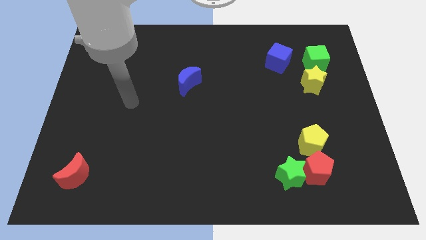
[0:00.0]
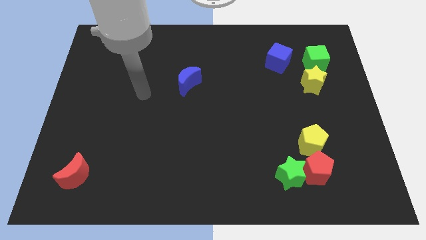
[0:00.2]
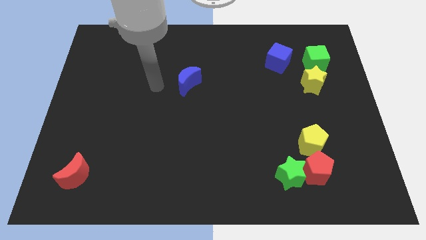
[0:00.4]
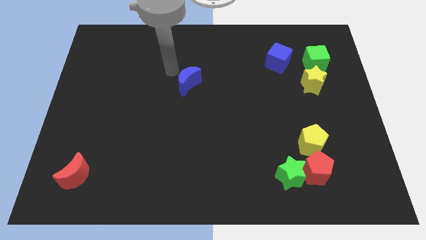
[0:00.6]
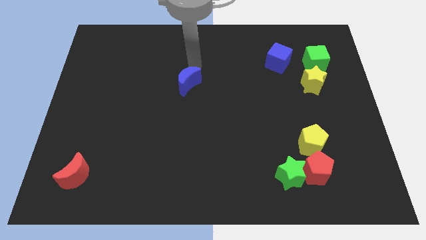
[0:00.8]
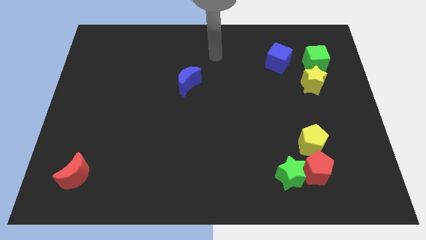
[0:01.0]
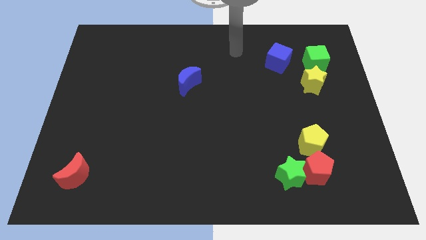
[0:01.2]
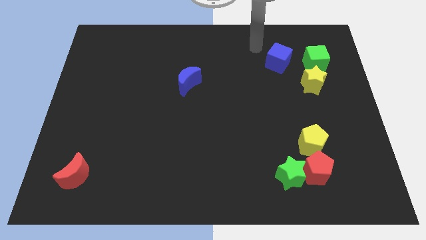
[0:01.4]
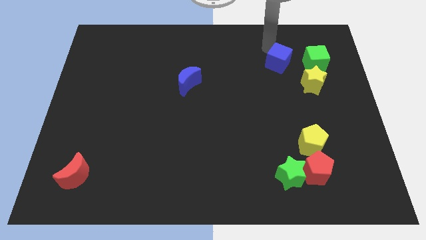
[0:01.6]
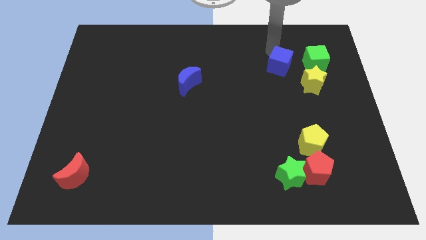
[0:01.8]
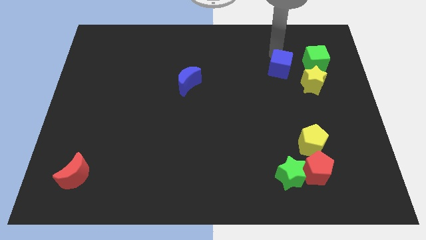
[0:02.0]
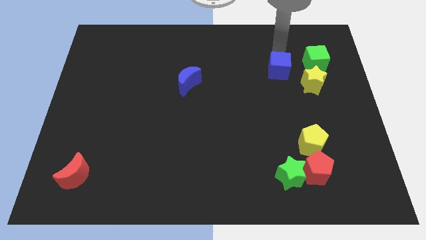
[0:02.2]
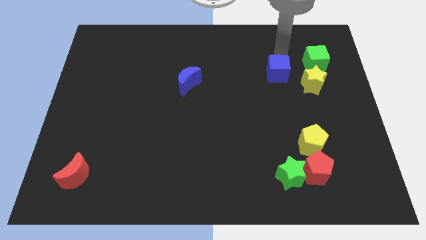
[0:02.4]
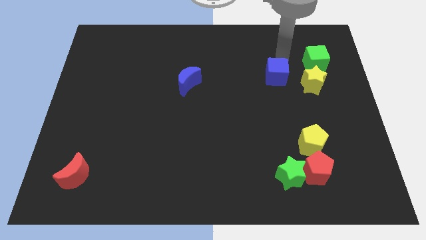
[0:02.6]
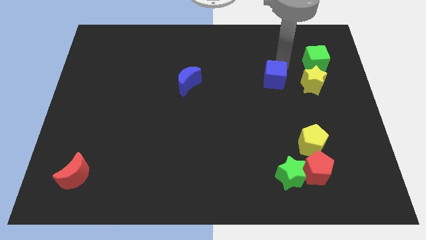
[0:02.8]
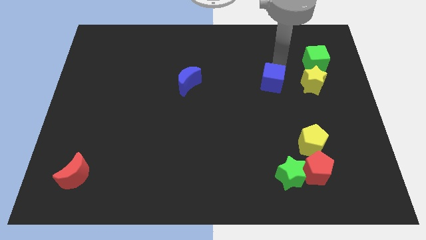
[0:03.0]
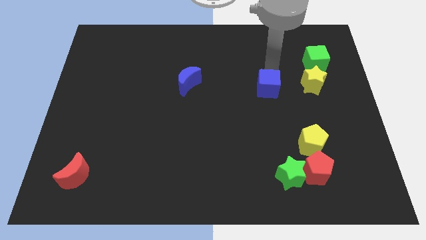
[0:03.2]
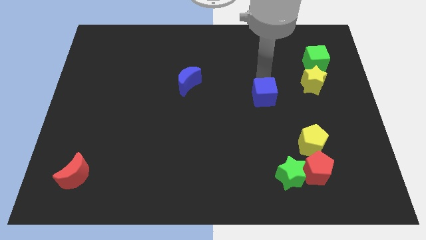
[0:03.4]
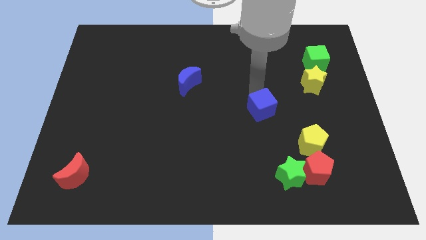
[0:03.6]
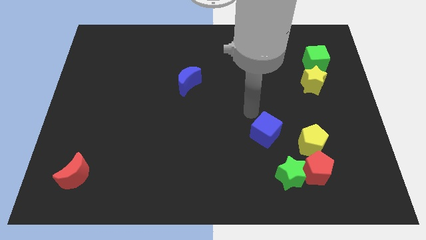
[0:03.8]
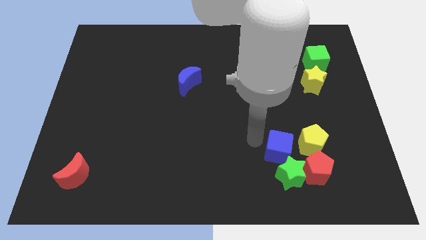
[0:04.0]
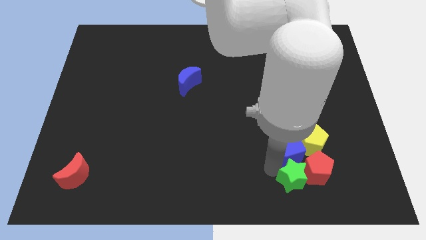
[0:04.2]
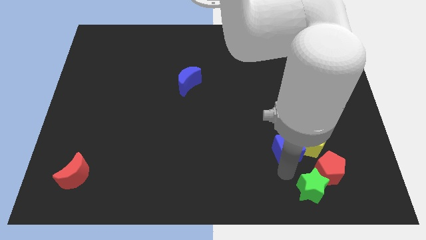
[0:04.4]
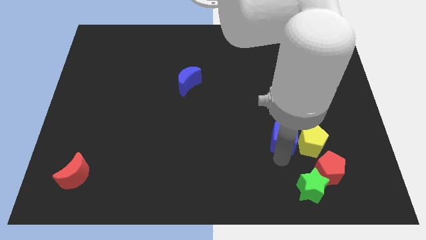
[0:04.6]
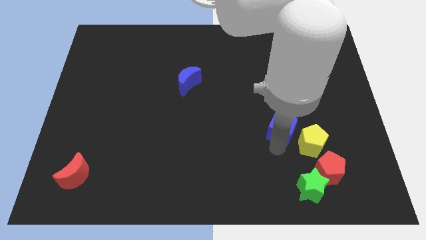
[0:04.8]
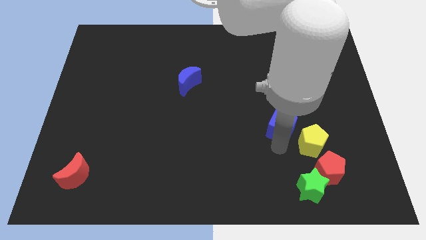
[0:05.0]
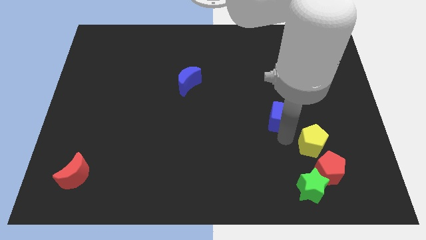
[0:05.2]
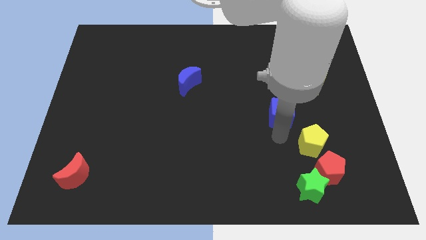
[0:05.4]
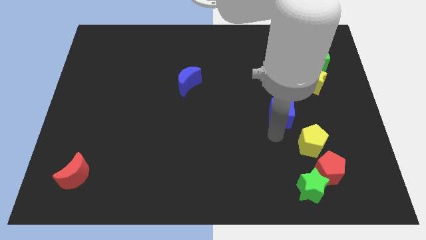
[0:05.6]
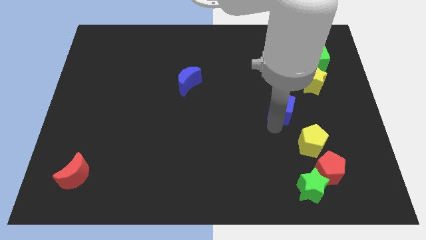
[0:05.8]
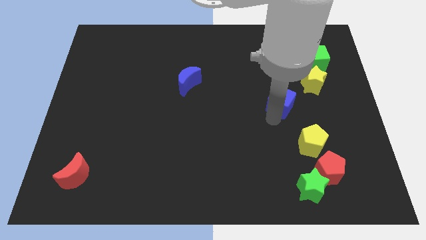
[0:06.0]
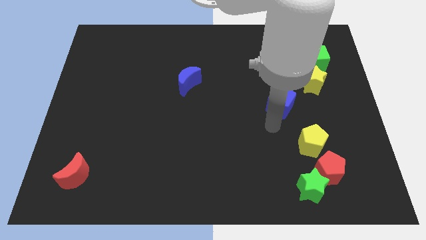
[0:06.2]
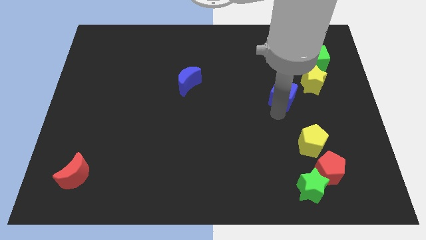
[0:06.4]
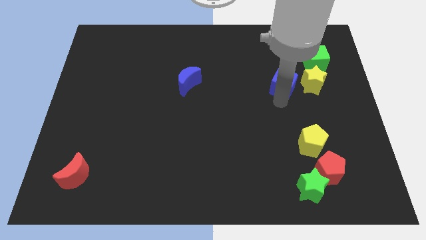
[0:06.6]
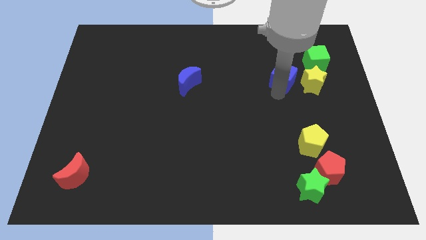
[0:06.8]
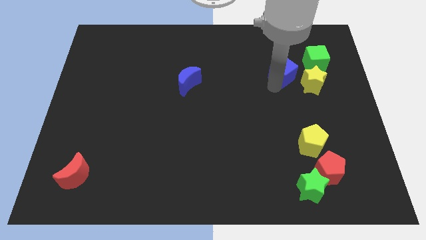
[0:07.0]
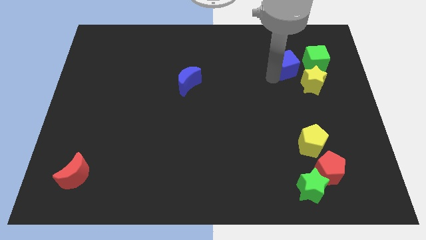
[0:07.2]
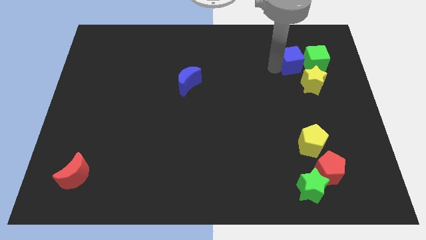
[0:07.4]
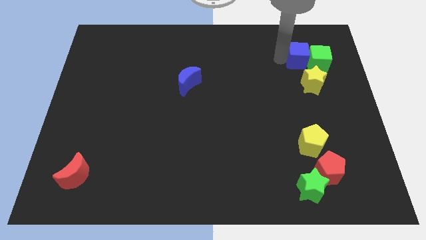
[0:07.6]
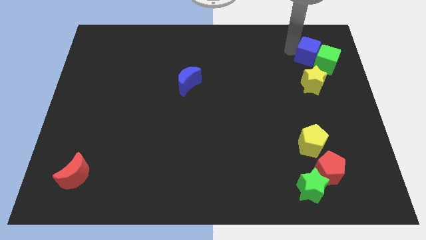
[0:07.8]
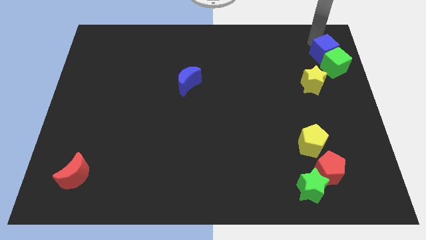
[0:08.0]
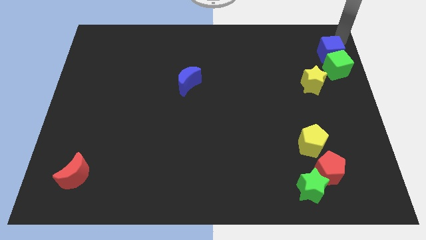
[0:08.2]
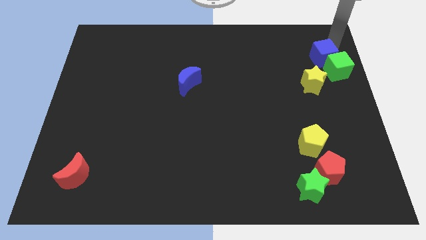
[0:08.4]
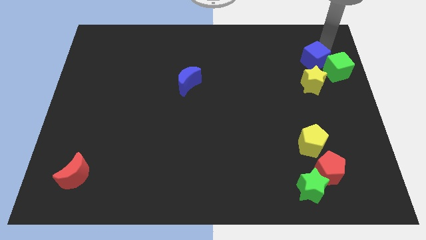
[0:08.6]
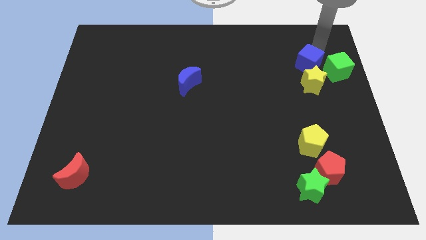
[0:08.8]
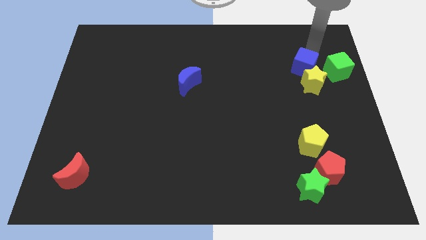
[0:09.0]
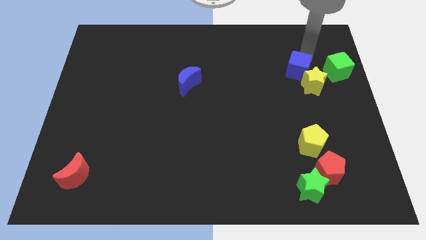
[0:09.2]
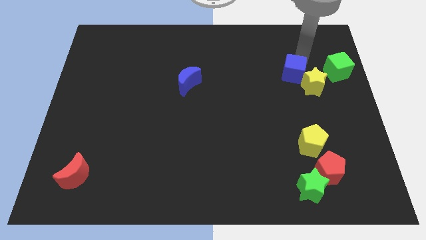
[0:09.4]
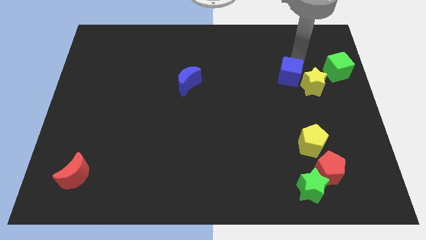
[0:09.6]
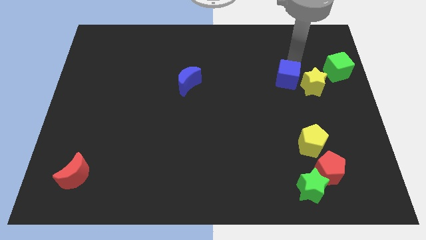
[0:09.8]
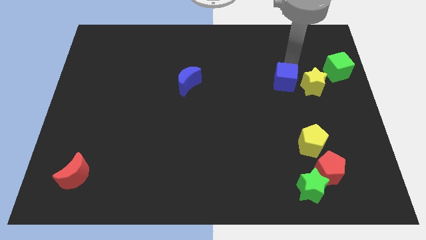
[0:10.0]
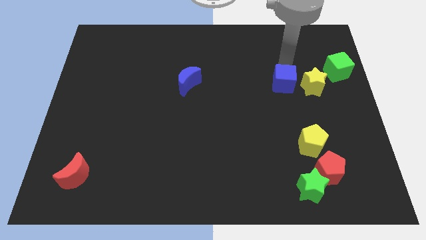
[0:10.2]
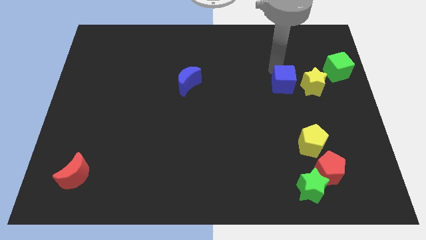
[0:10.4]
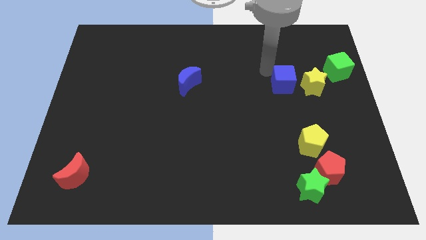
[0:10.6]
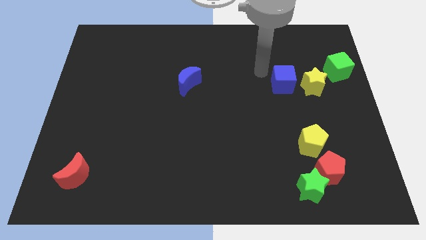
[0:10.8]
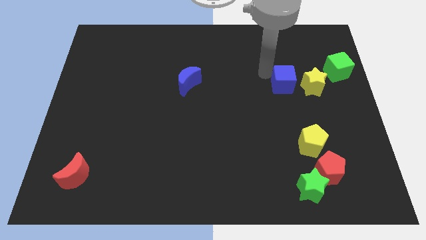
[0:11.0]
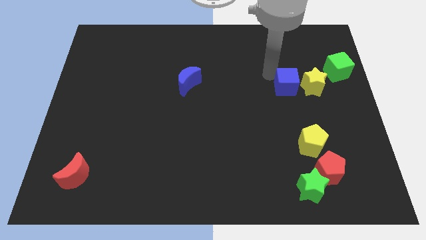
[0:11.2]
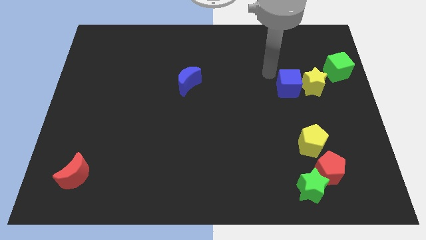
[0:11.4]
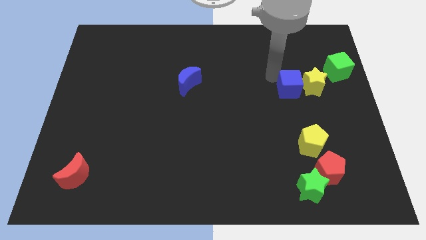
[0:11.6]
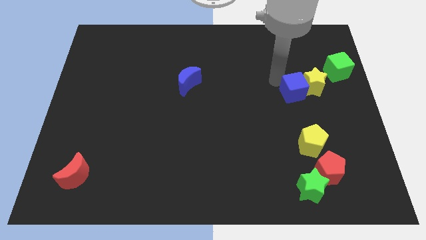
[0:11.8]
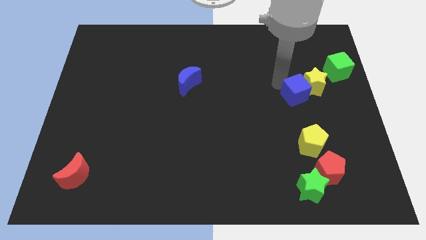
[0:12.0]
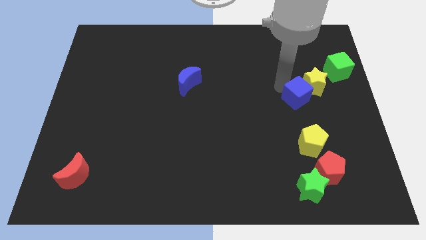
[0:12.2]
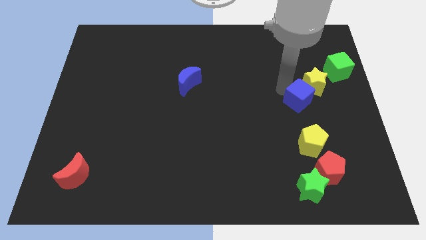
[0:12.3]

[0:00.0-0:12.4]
slide the blue cube below the yellow star
